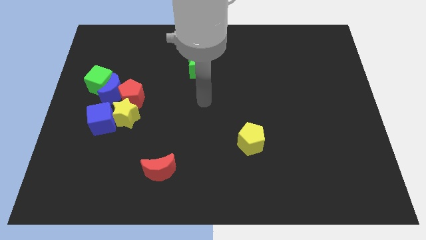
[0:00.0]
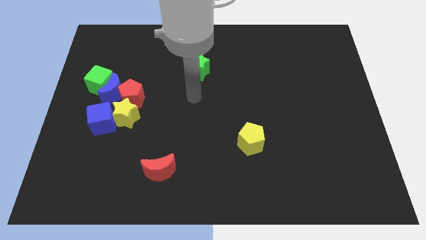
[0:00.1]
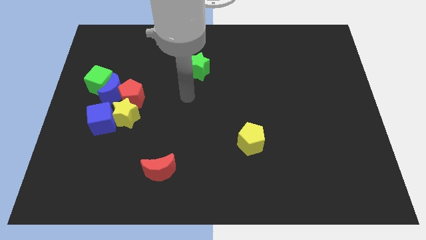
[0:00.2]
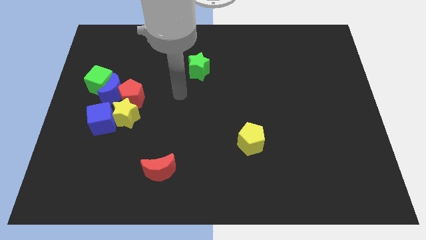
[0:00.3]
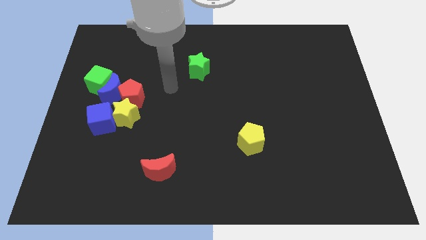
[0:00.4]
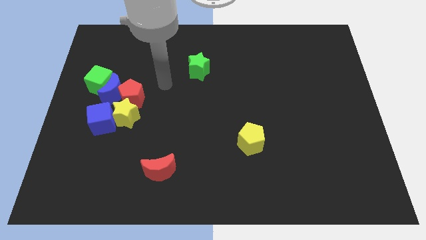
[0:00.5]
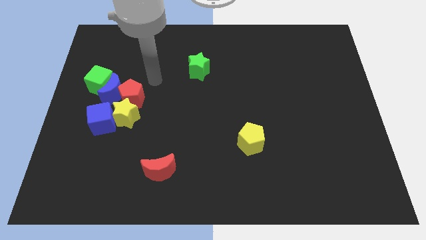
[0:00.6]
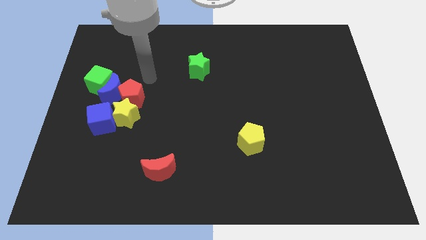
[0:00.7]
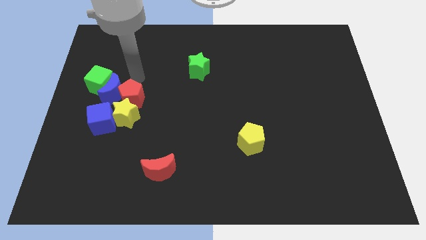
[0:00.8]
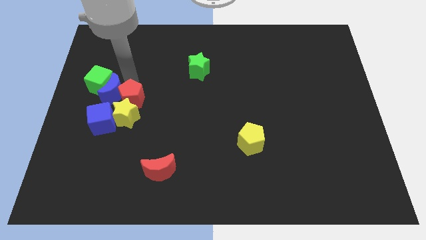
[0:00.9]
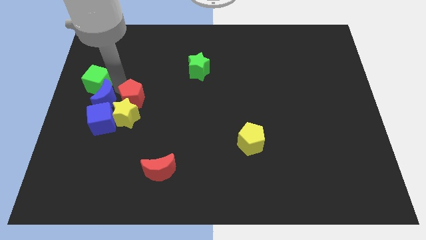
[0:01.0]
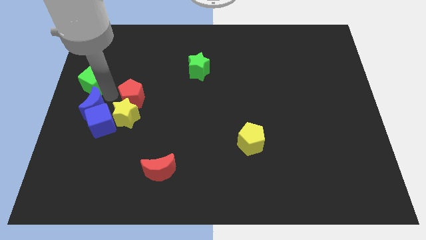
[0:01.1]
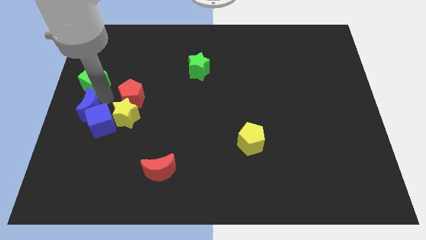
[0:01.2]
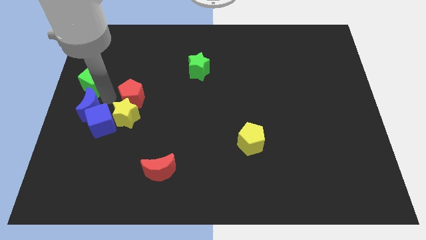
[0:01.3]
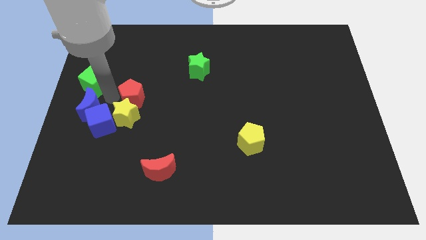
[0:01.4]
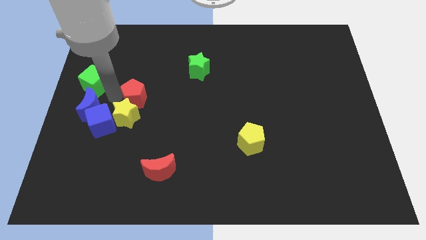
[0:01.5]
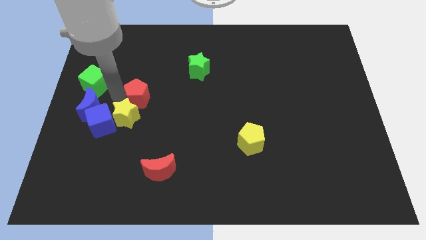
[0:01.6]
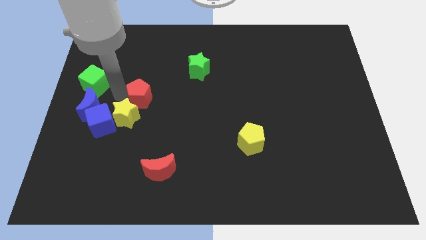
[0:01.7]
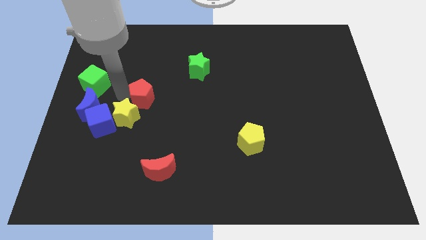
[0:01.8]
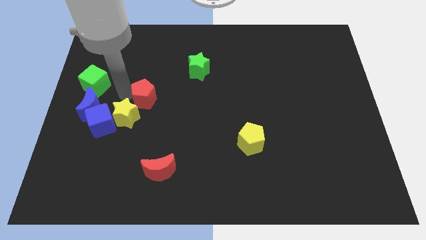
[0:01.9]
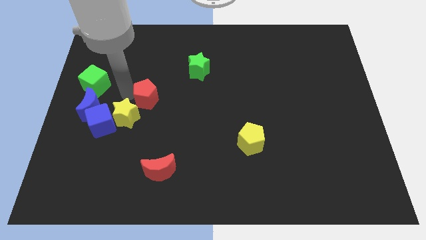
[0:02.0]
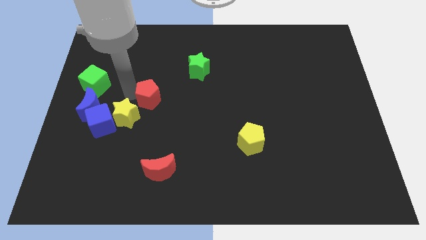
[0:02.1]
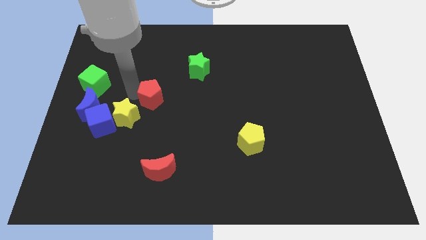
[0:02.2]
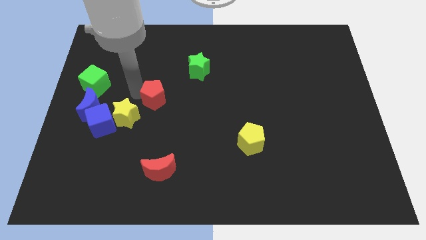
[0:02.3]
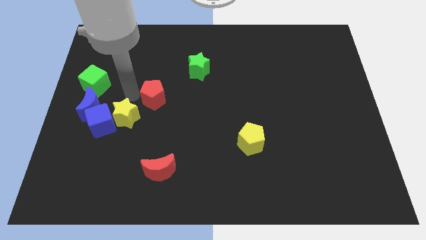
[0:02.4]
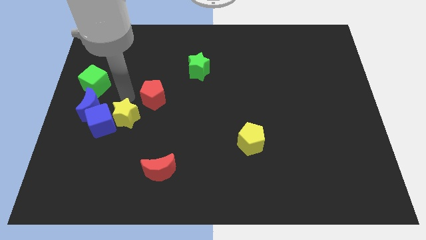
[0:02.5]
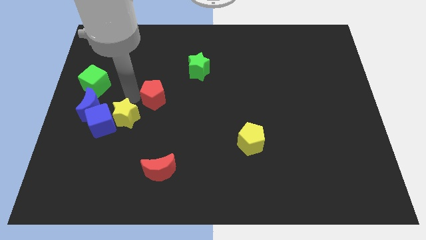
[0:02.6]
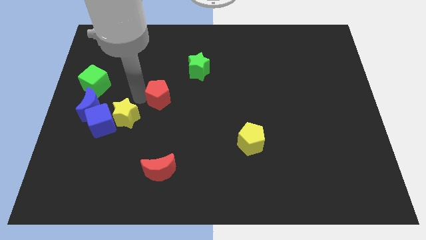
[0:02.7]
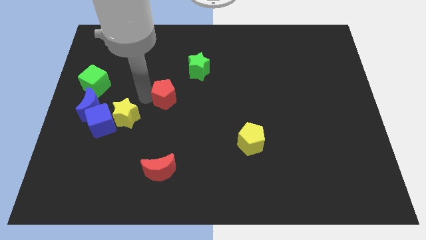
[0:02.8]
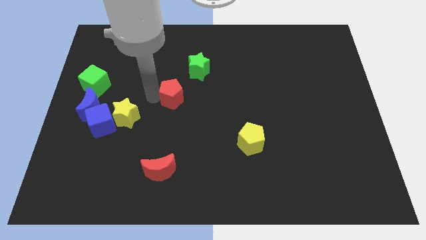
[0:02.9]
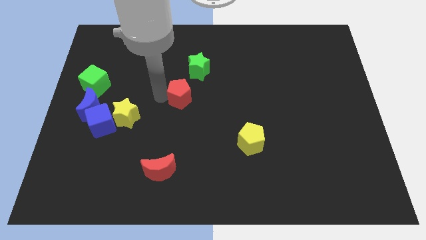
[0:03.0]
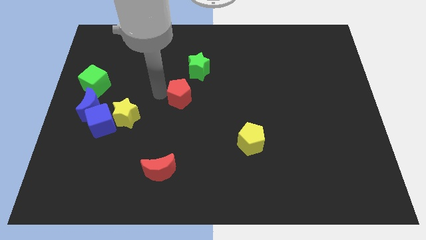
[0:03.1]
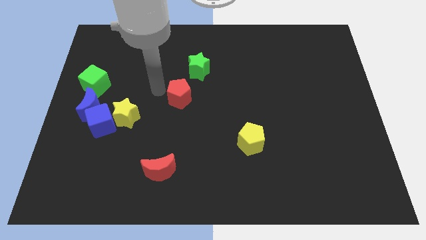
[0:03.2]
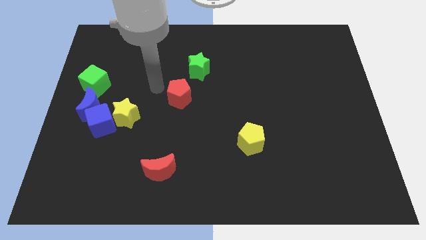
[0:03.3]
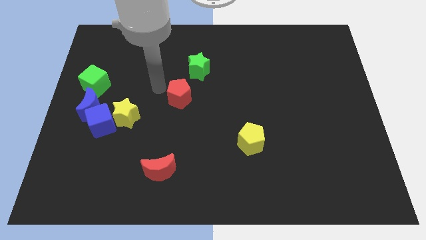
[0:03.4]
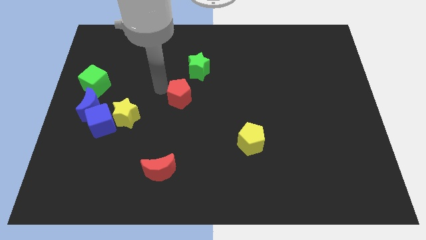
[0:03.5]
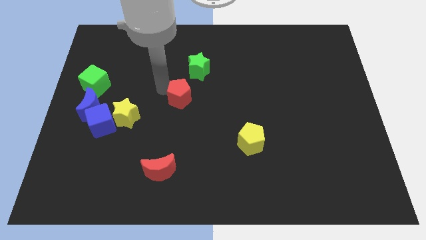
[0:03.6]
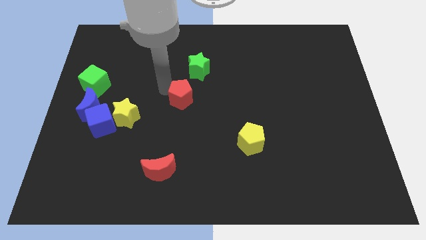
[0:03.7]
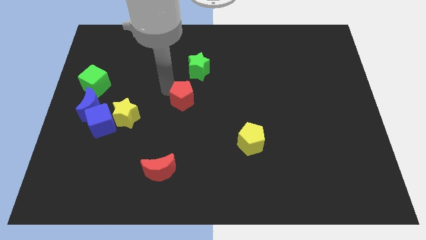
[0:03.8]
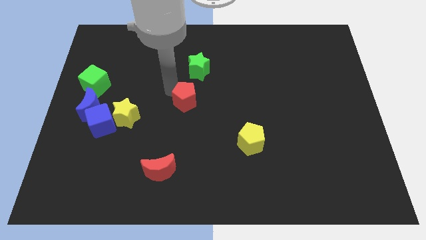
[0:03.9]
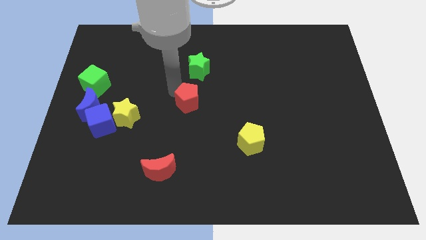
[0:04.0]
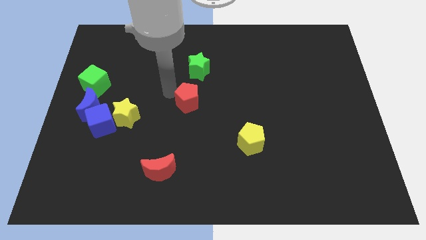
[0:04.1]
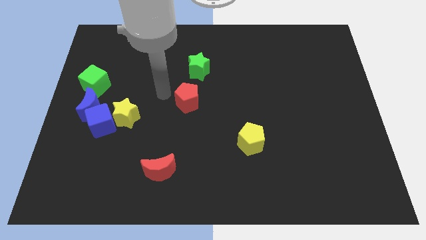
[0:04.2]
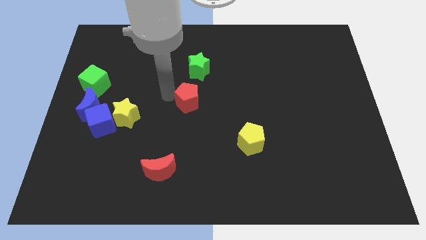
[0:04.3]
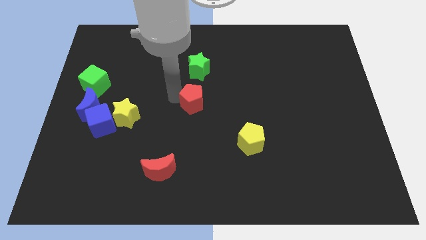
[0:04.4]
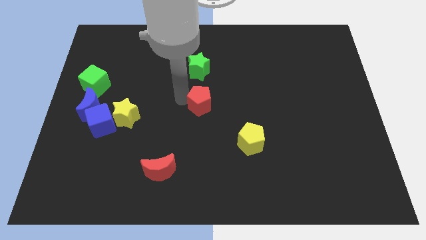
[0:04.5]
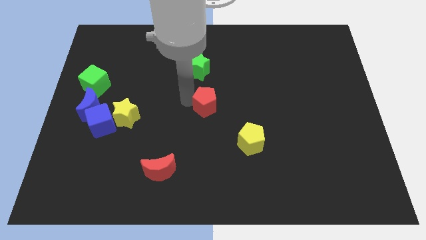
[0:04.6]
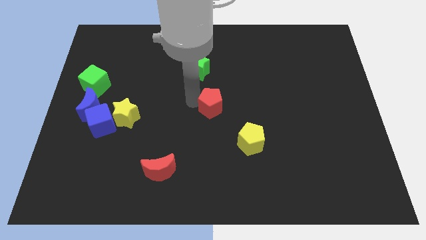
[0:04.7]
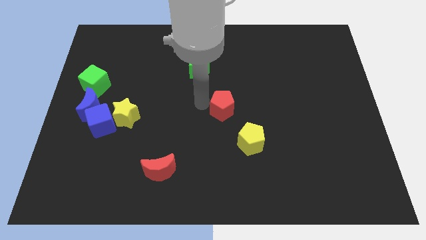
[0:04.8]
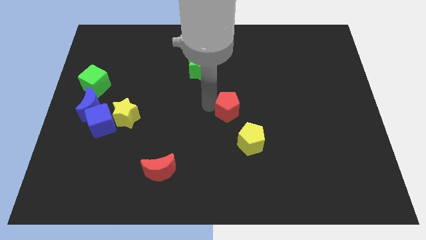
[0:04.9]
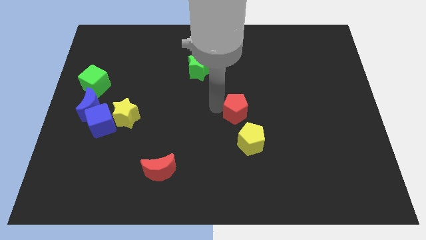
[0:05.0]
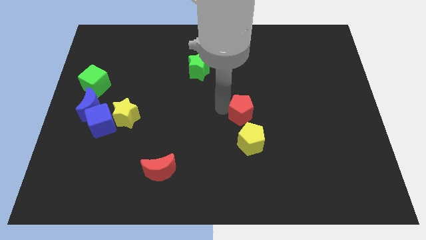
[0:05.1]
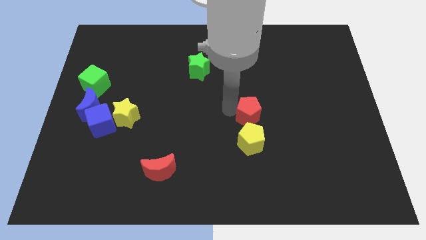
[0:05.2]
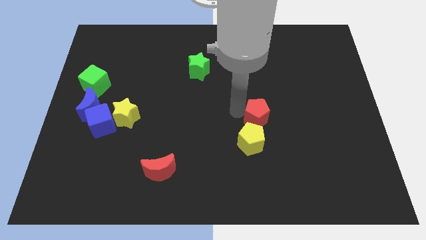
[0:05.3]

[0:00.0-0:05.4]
put the red pentagon to the top right side of the yellow pentagon

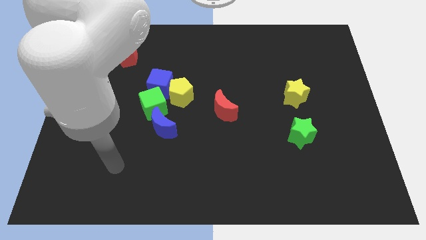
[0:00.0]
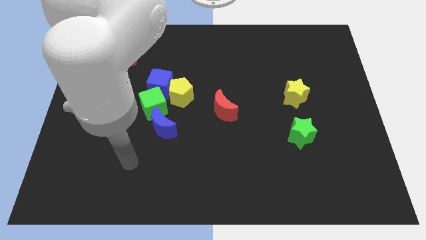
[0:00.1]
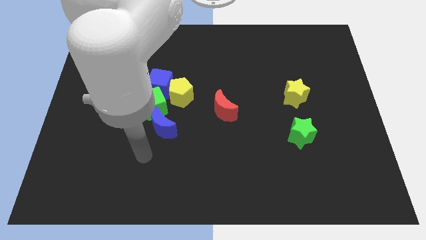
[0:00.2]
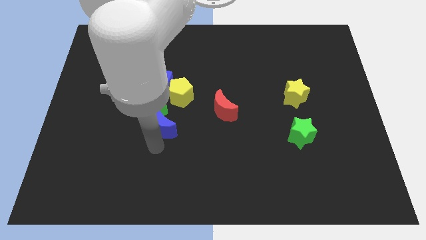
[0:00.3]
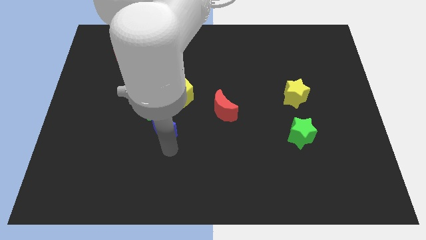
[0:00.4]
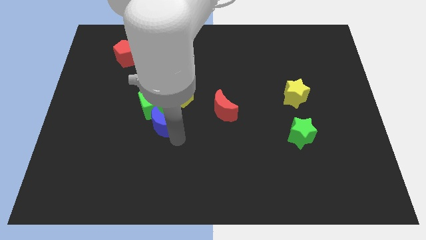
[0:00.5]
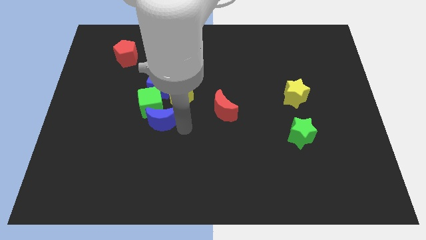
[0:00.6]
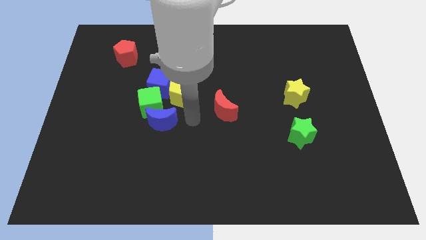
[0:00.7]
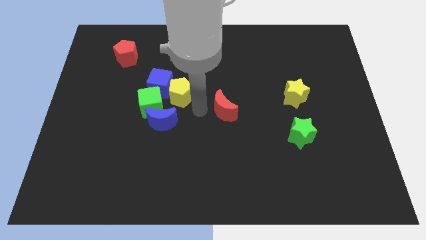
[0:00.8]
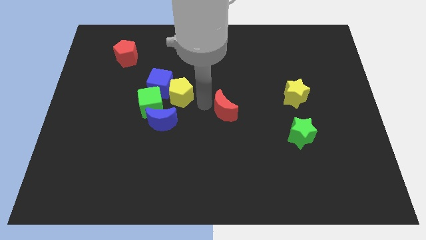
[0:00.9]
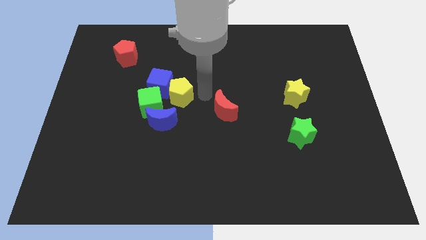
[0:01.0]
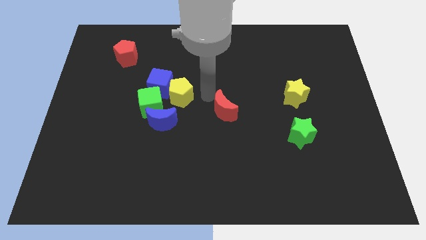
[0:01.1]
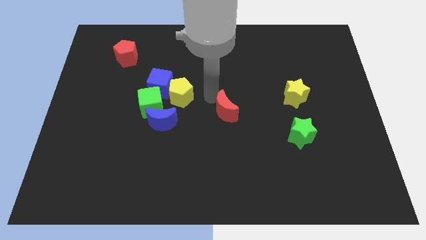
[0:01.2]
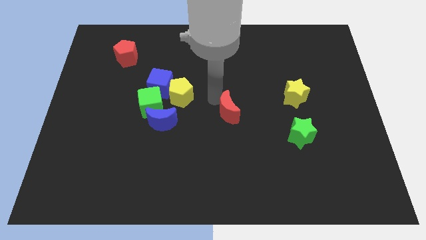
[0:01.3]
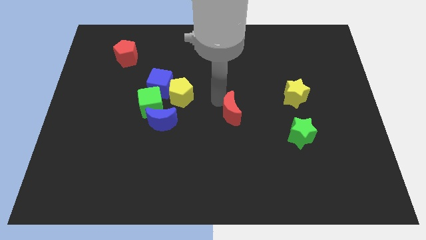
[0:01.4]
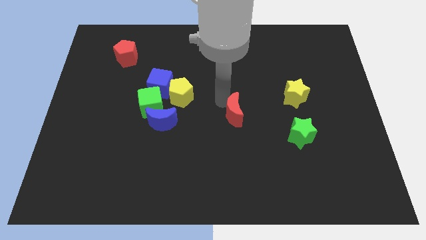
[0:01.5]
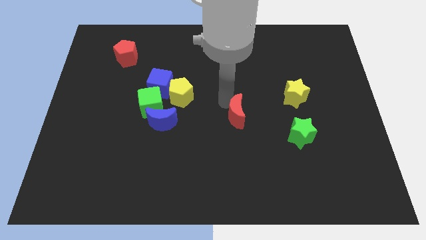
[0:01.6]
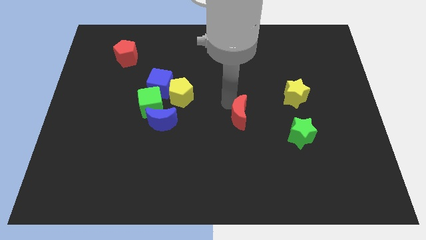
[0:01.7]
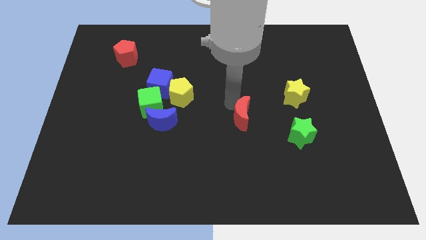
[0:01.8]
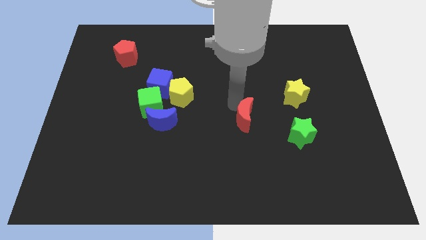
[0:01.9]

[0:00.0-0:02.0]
move the red moon left of the green star
